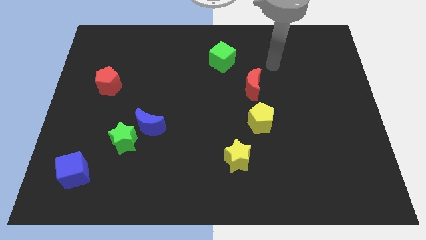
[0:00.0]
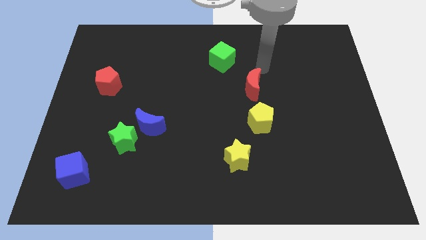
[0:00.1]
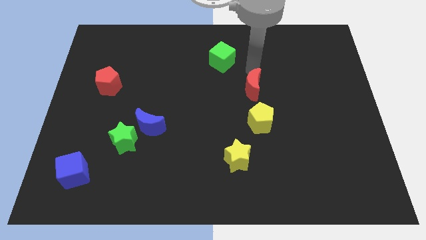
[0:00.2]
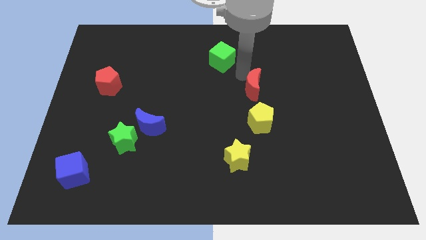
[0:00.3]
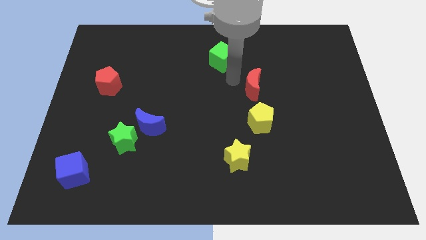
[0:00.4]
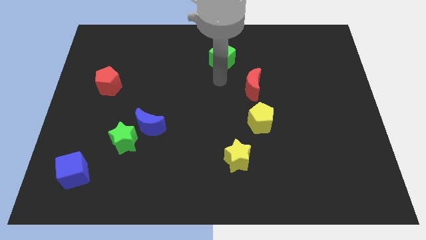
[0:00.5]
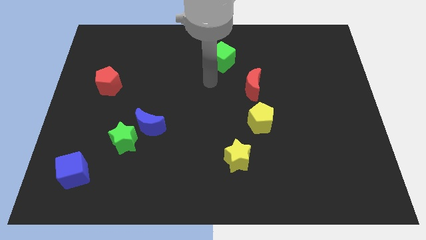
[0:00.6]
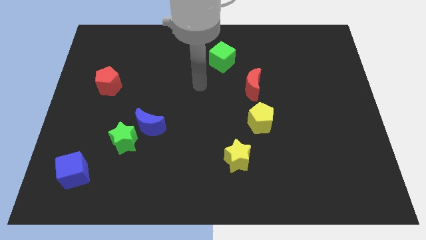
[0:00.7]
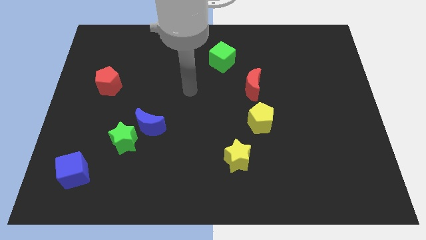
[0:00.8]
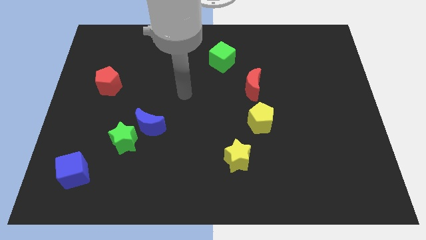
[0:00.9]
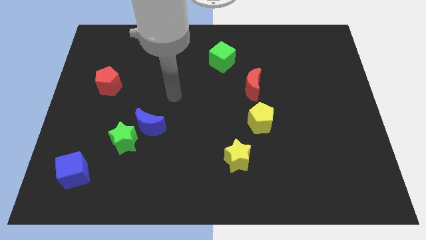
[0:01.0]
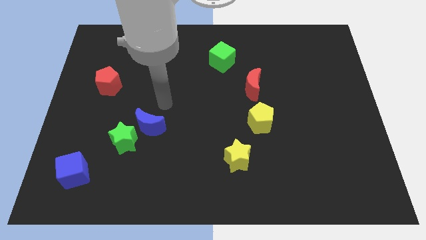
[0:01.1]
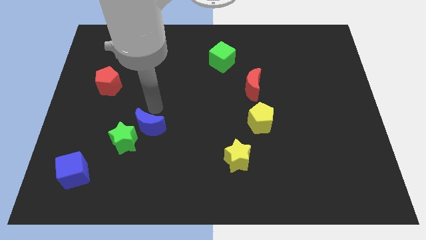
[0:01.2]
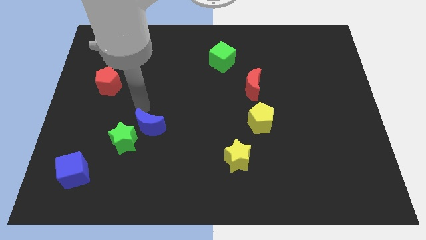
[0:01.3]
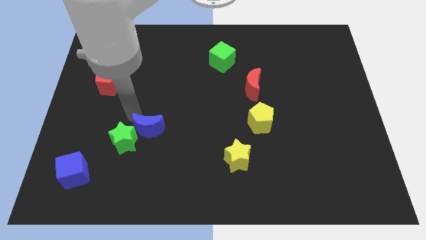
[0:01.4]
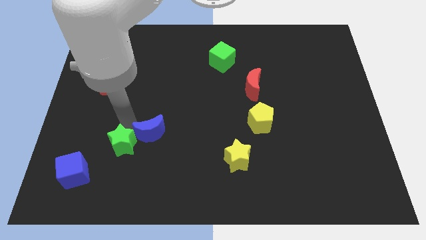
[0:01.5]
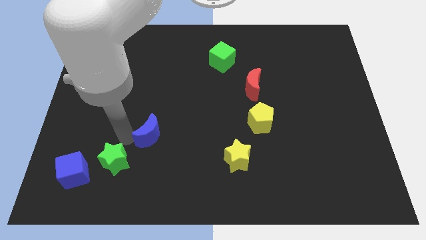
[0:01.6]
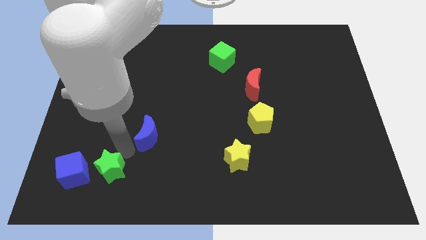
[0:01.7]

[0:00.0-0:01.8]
separate the blue moon from the green star

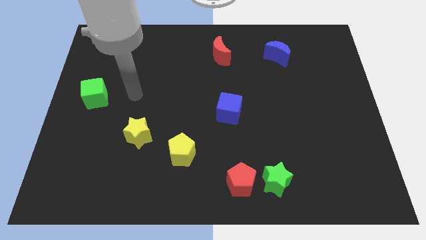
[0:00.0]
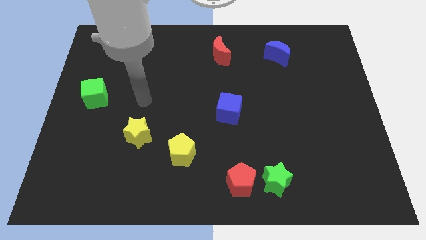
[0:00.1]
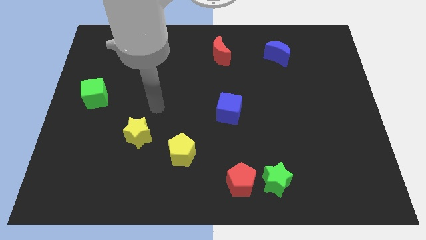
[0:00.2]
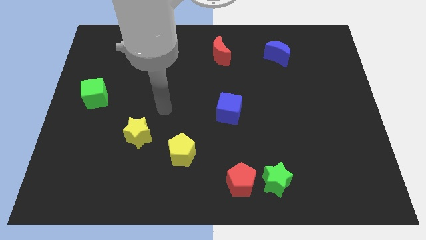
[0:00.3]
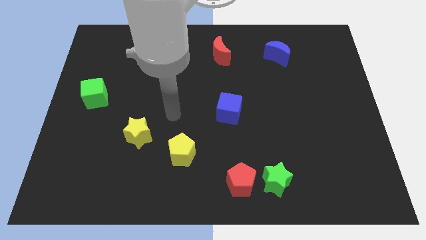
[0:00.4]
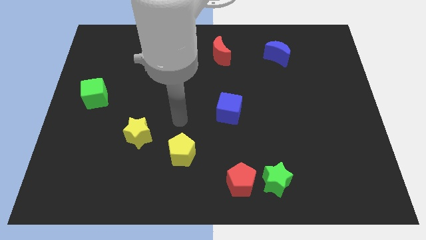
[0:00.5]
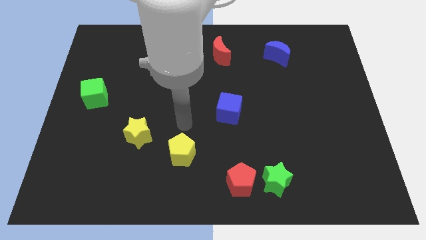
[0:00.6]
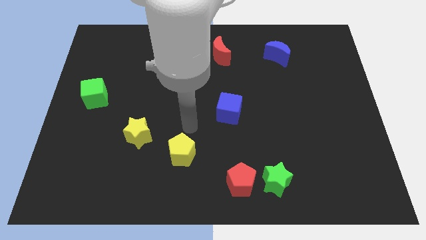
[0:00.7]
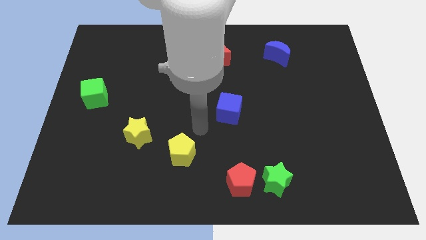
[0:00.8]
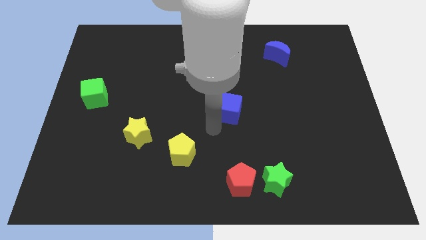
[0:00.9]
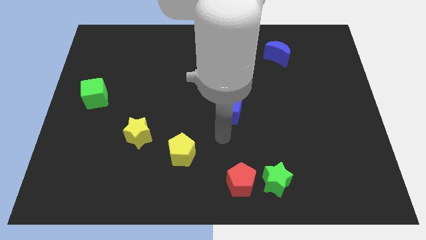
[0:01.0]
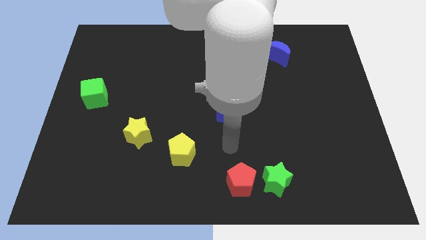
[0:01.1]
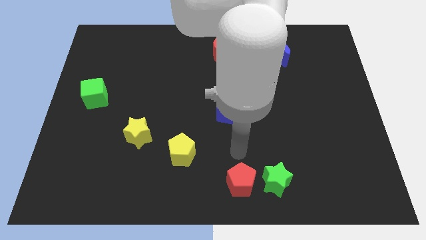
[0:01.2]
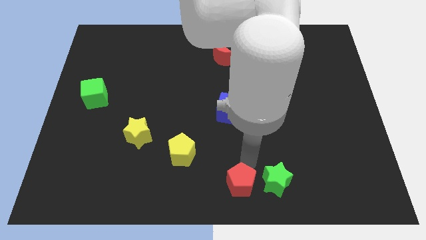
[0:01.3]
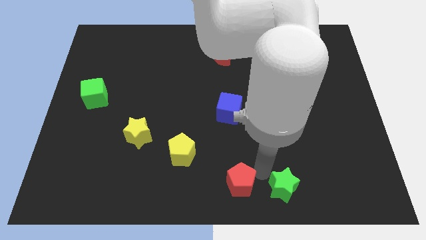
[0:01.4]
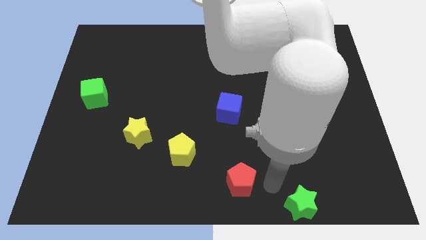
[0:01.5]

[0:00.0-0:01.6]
move the red pentagon away from the green star

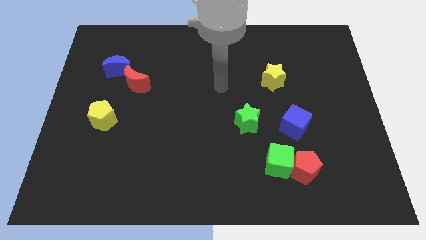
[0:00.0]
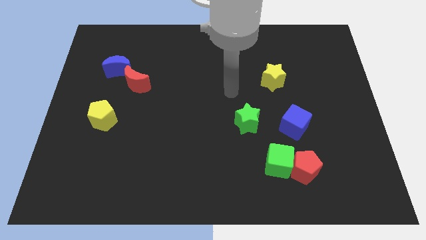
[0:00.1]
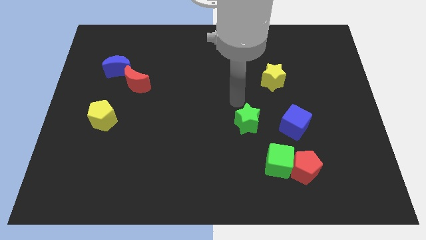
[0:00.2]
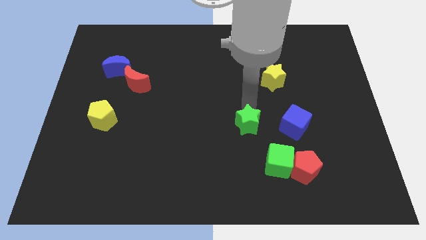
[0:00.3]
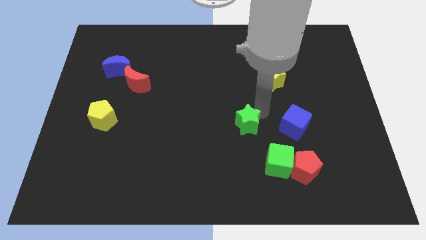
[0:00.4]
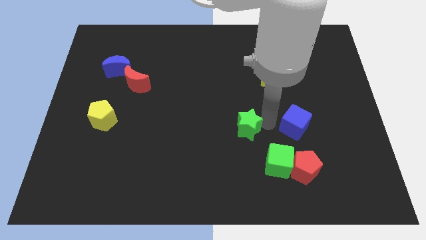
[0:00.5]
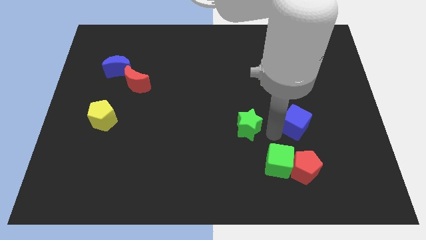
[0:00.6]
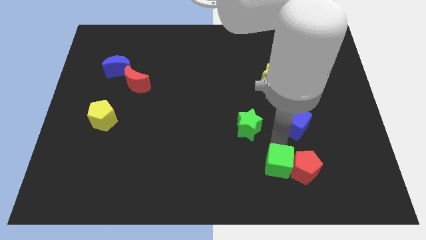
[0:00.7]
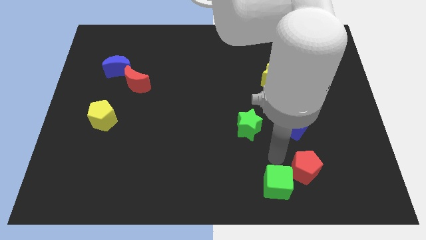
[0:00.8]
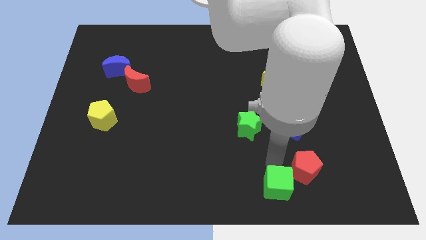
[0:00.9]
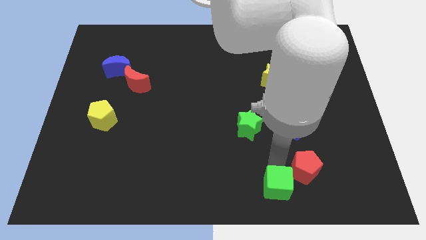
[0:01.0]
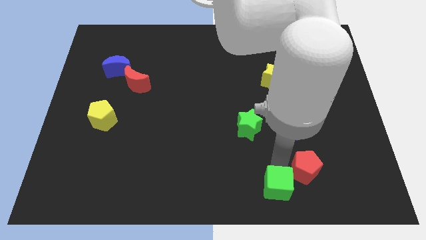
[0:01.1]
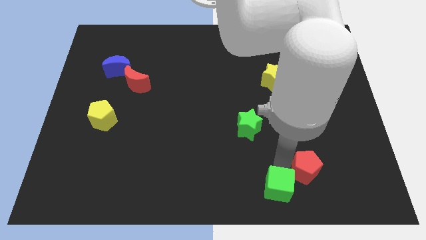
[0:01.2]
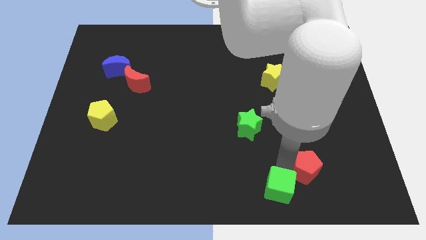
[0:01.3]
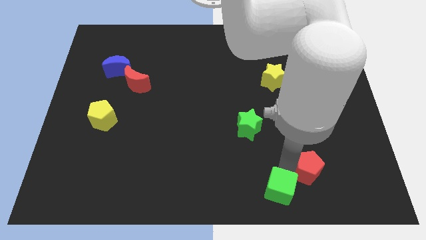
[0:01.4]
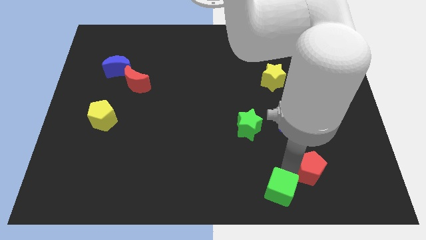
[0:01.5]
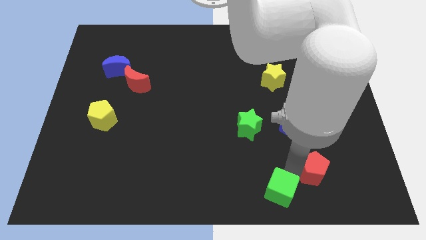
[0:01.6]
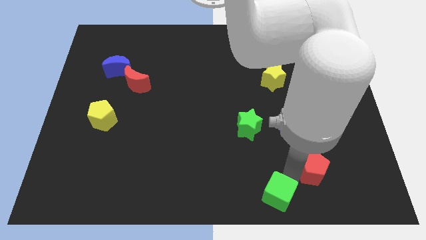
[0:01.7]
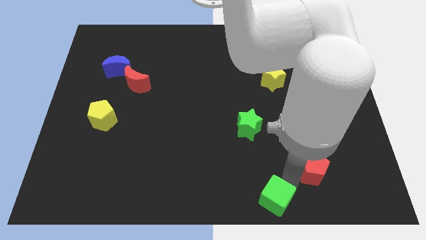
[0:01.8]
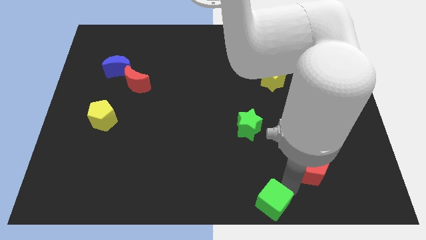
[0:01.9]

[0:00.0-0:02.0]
pull the red pentagon apart from the green cube

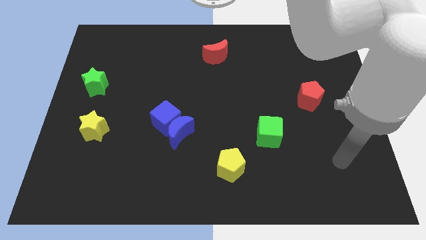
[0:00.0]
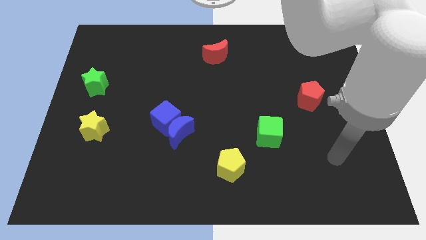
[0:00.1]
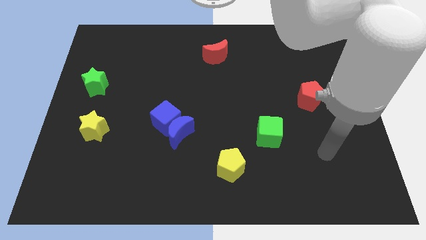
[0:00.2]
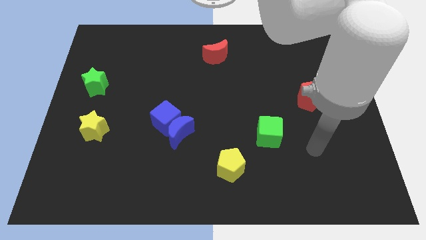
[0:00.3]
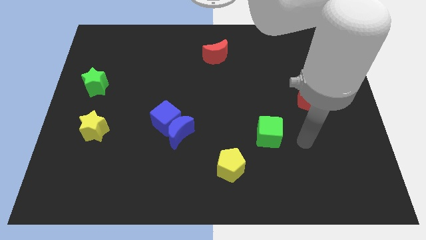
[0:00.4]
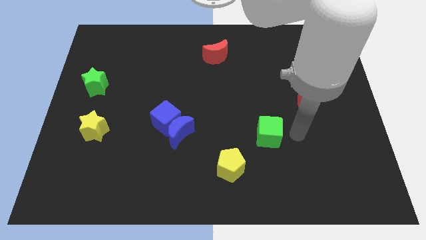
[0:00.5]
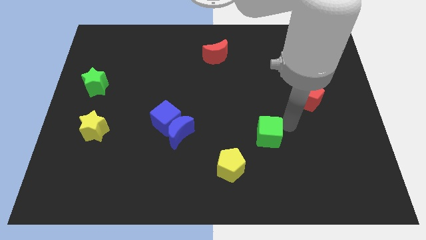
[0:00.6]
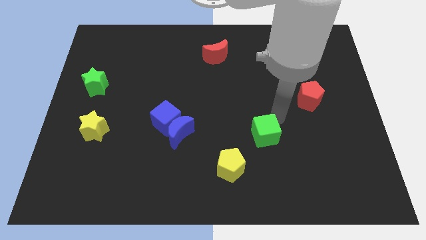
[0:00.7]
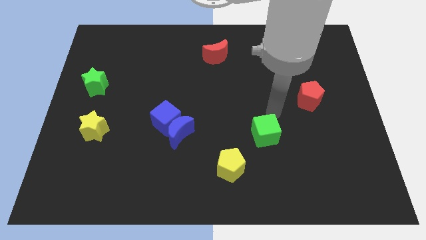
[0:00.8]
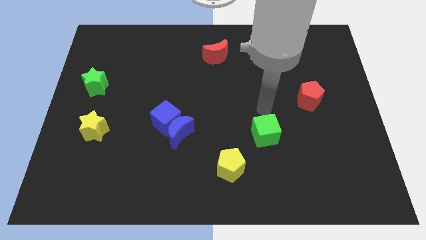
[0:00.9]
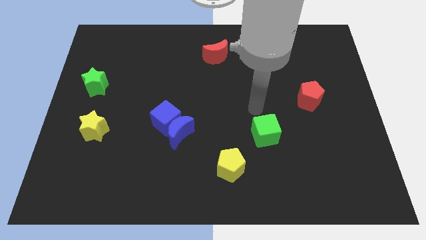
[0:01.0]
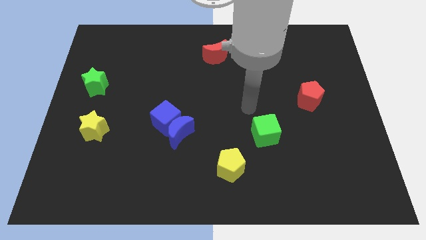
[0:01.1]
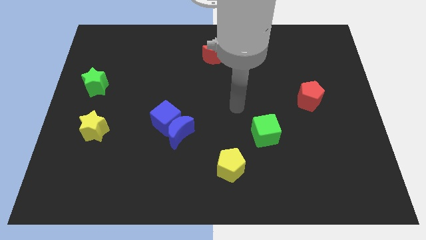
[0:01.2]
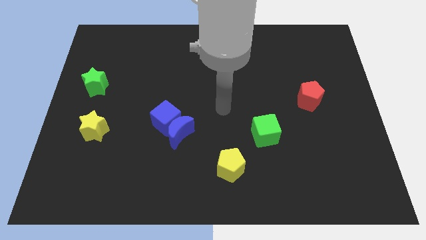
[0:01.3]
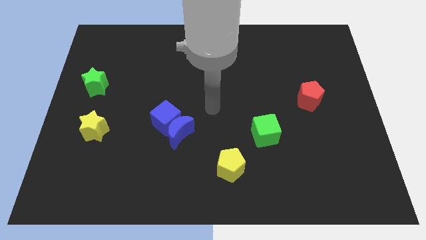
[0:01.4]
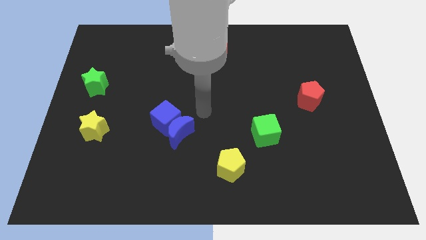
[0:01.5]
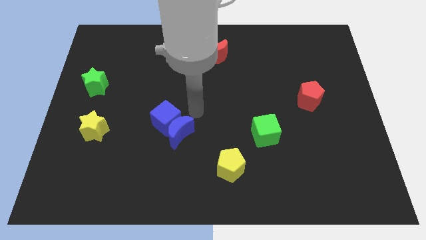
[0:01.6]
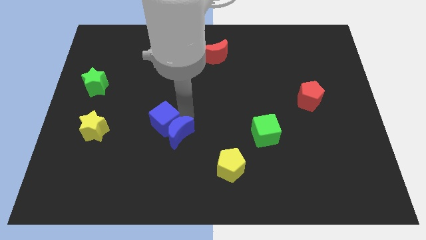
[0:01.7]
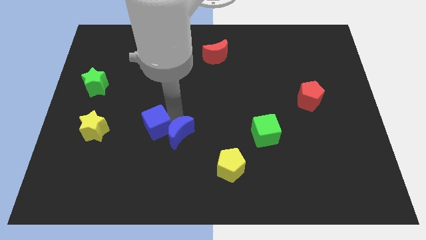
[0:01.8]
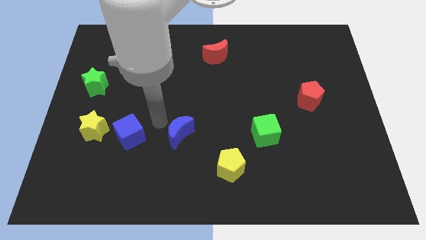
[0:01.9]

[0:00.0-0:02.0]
separate the blue moon from the blue cube

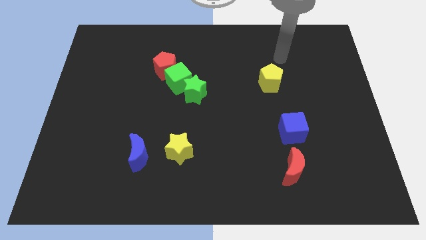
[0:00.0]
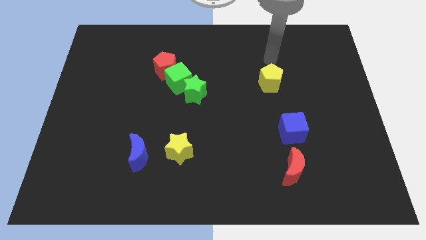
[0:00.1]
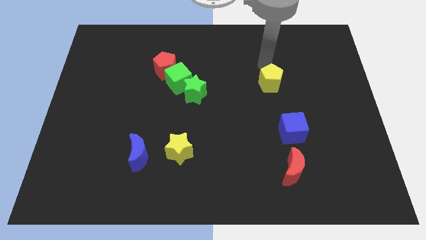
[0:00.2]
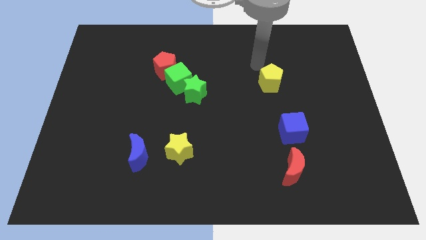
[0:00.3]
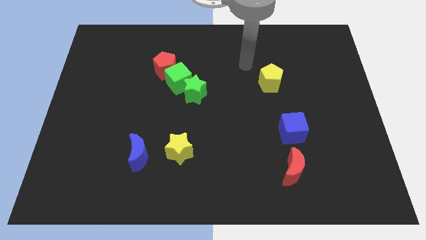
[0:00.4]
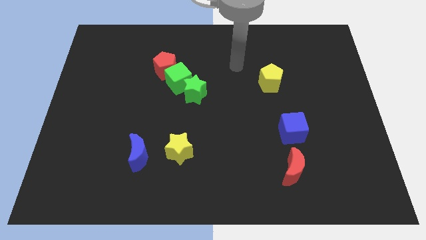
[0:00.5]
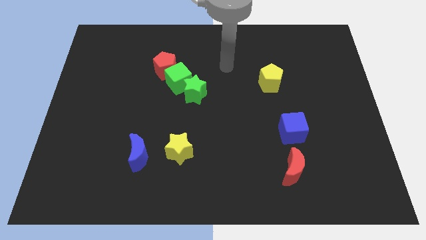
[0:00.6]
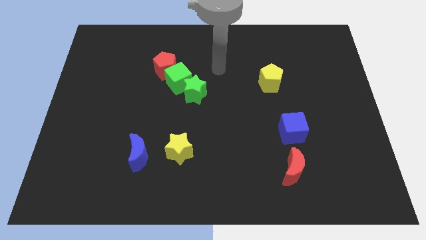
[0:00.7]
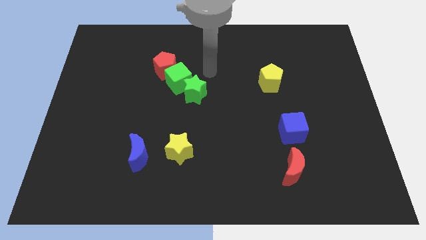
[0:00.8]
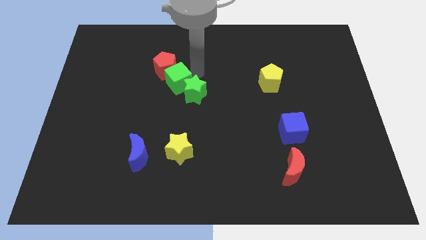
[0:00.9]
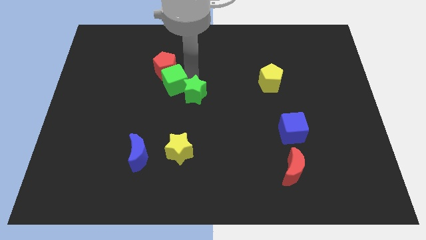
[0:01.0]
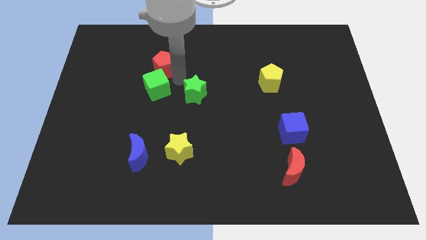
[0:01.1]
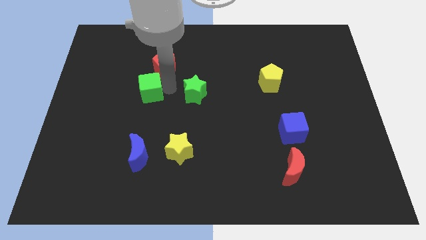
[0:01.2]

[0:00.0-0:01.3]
separate the green star from the green cube

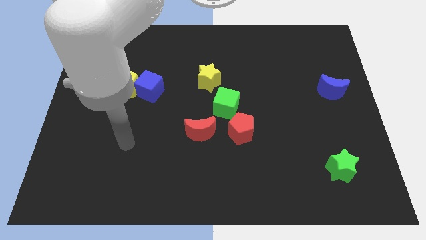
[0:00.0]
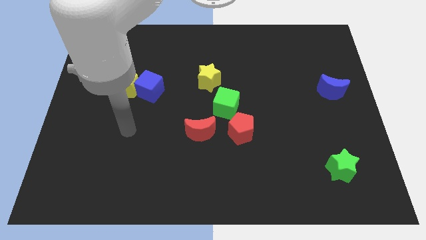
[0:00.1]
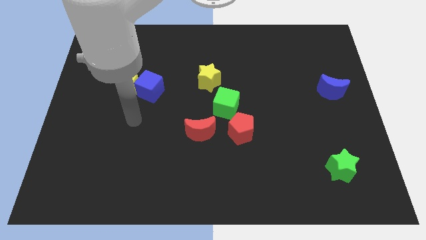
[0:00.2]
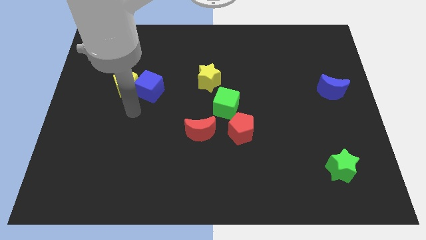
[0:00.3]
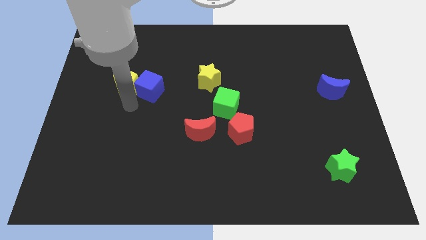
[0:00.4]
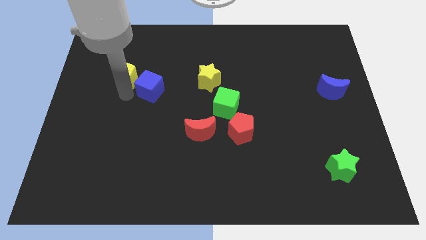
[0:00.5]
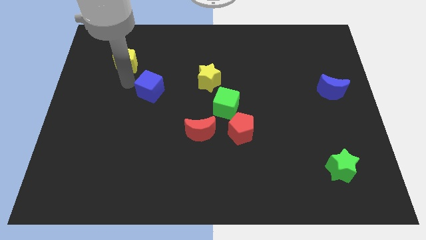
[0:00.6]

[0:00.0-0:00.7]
separate the blue cube from the yellow pentagon
